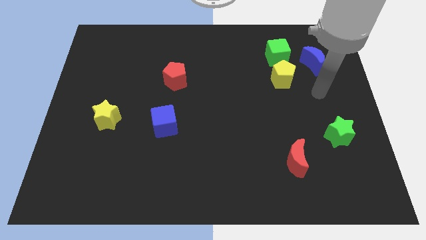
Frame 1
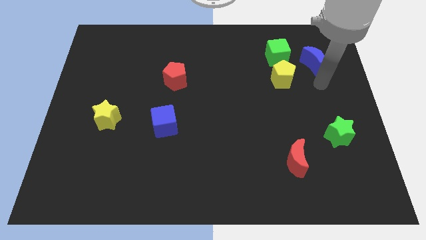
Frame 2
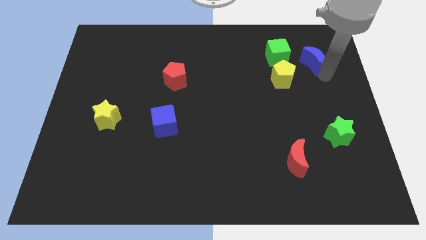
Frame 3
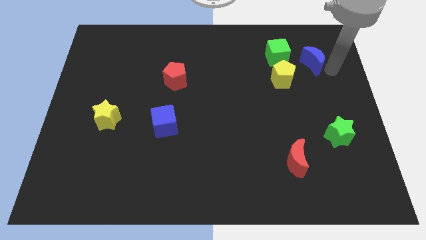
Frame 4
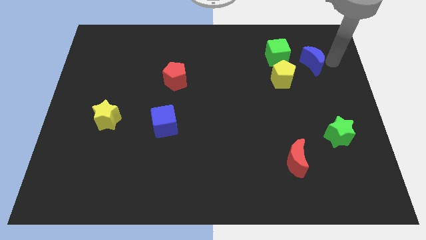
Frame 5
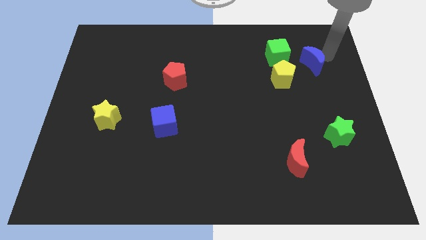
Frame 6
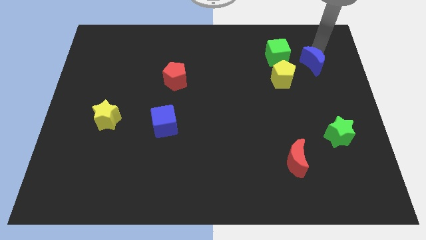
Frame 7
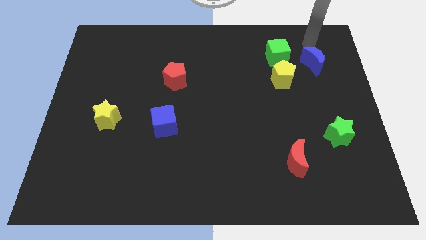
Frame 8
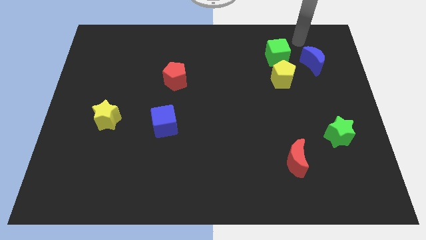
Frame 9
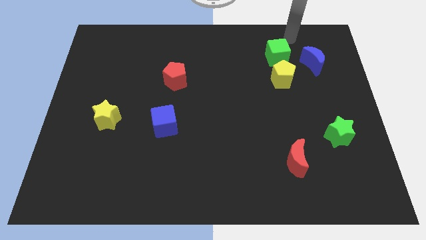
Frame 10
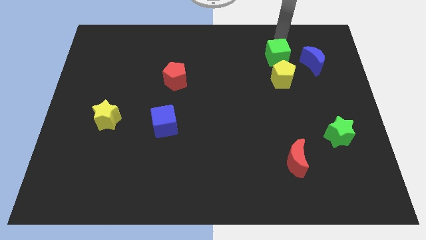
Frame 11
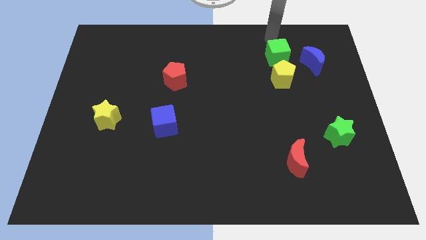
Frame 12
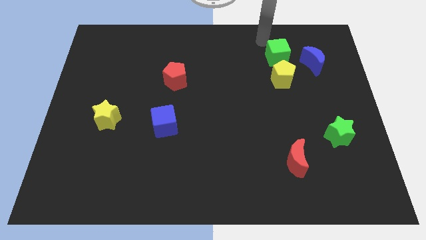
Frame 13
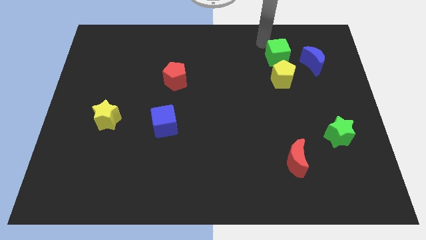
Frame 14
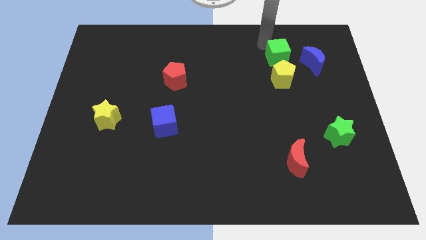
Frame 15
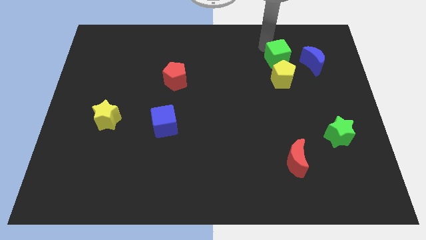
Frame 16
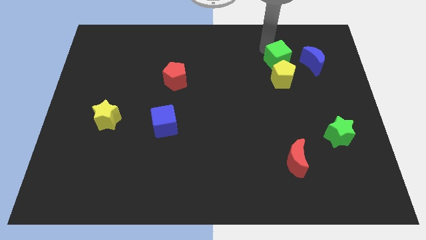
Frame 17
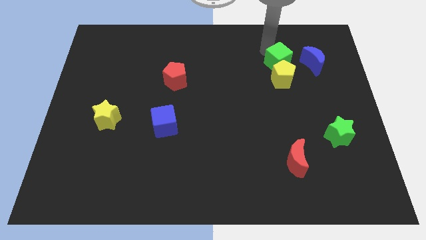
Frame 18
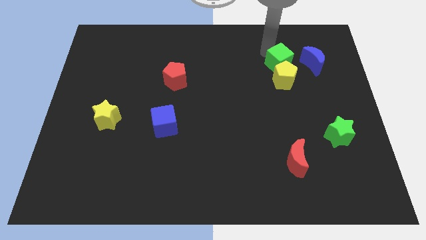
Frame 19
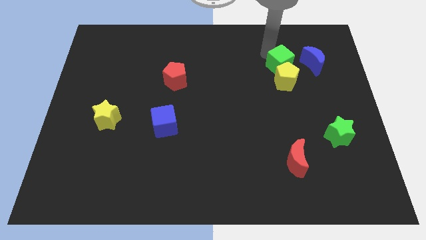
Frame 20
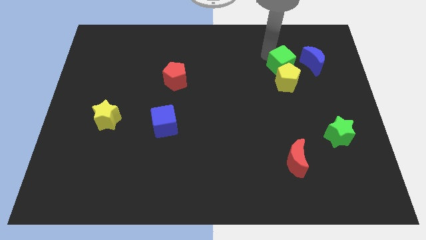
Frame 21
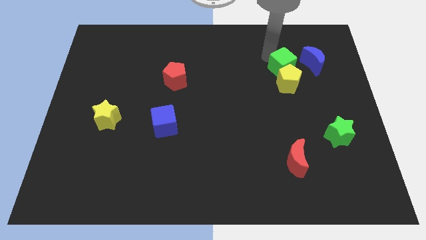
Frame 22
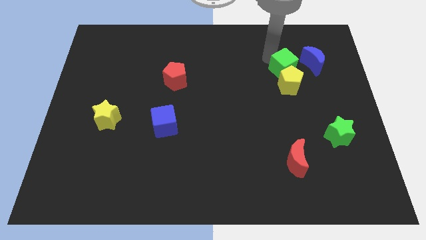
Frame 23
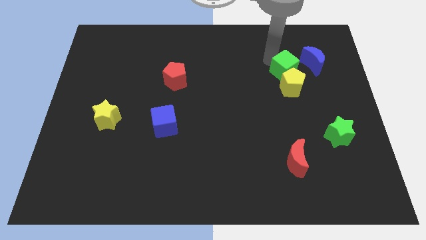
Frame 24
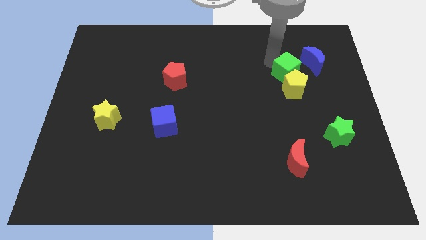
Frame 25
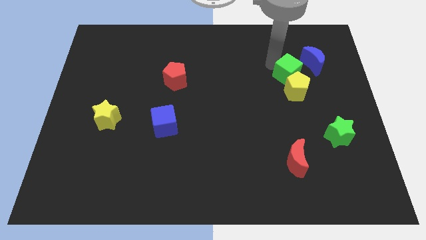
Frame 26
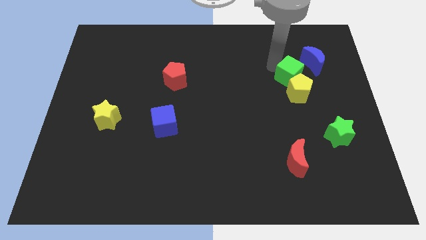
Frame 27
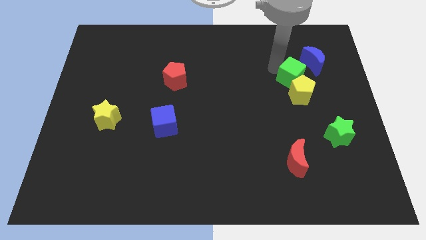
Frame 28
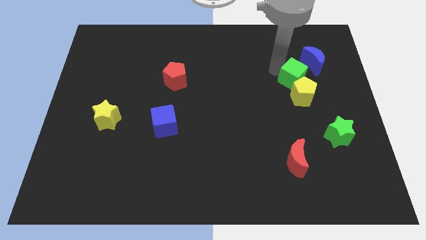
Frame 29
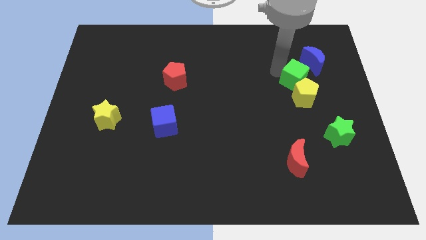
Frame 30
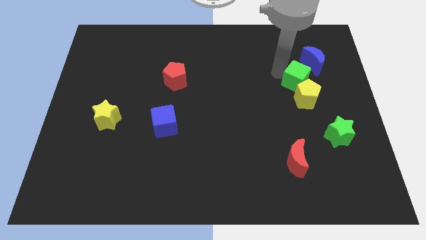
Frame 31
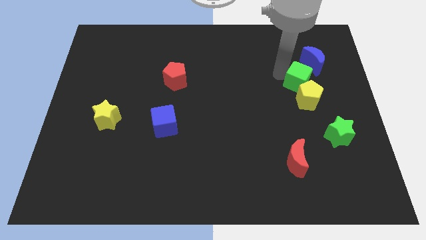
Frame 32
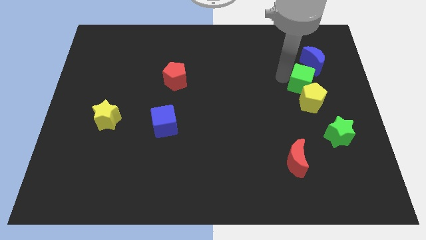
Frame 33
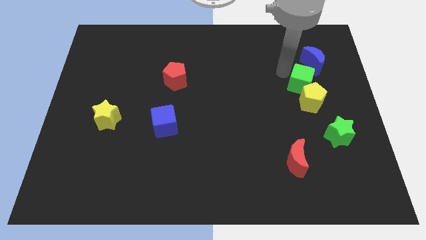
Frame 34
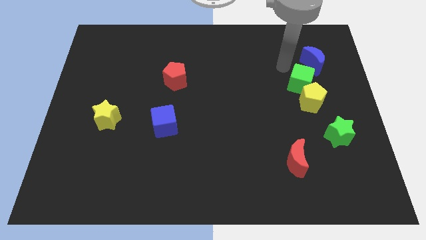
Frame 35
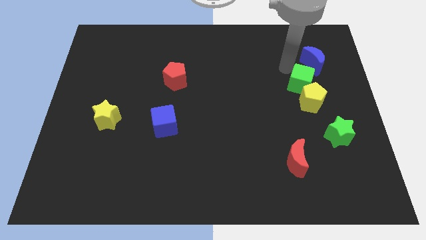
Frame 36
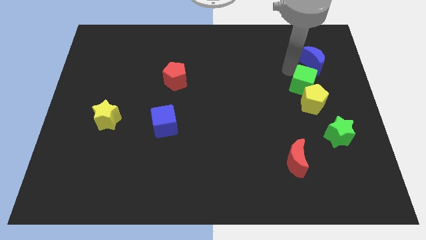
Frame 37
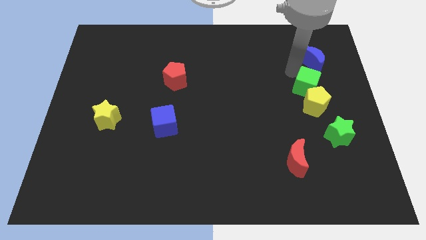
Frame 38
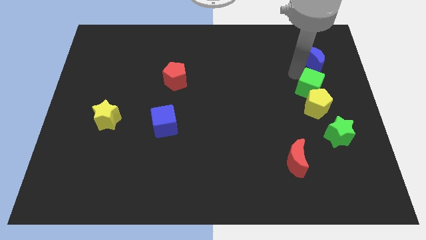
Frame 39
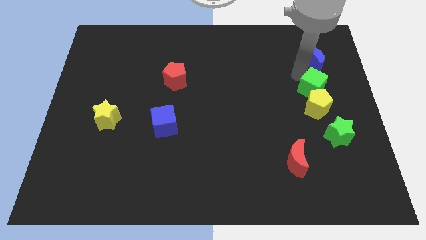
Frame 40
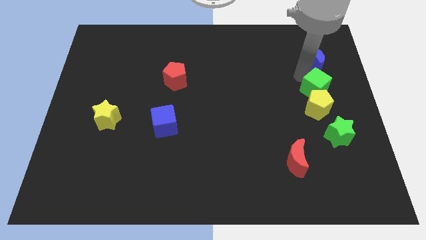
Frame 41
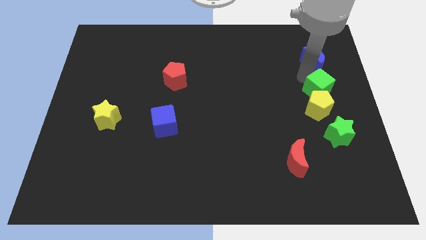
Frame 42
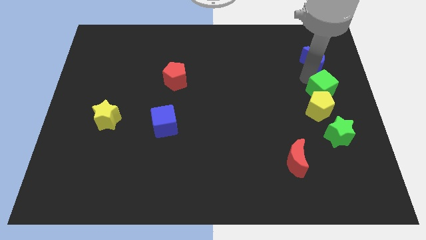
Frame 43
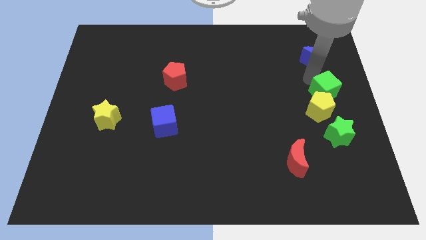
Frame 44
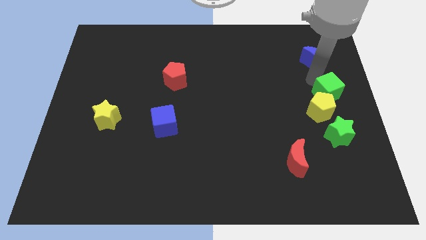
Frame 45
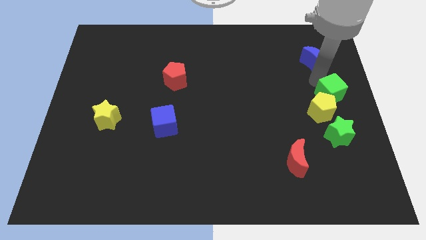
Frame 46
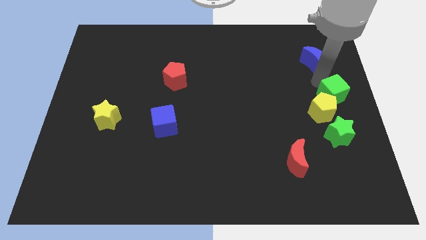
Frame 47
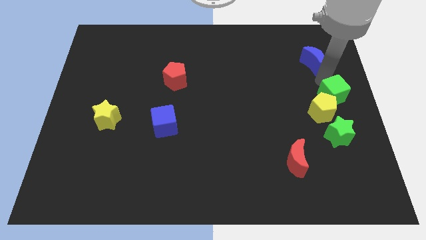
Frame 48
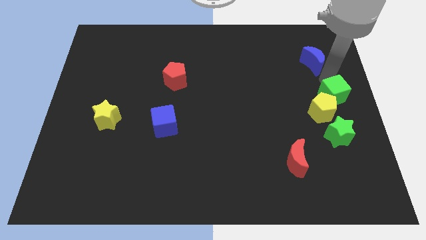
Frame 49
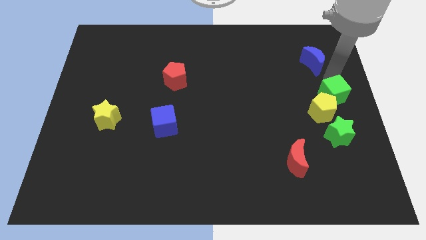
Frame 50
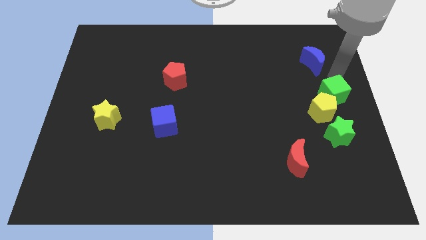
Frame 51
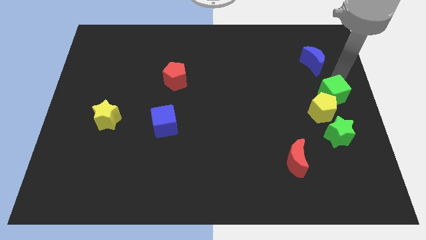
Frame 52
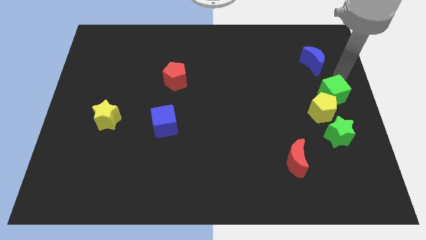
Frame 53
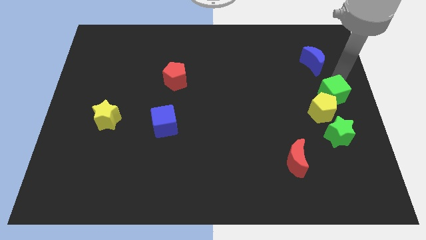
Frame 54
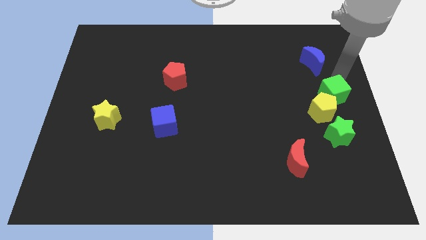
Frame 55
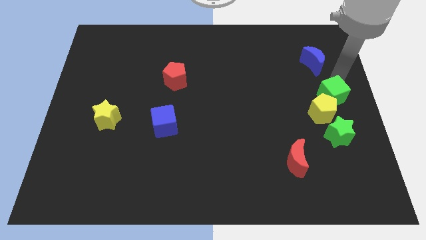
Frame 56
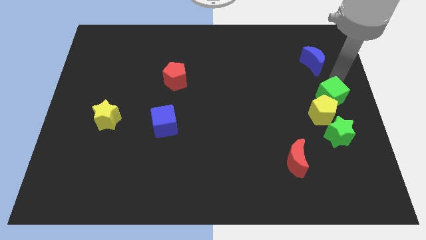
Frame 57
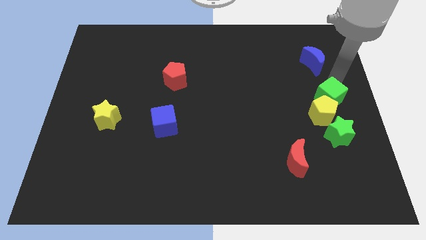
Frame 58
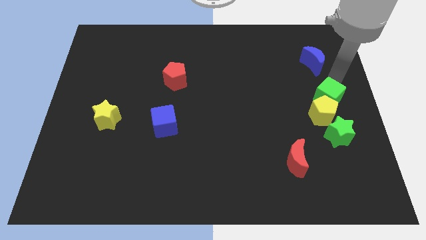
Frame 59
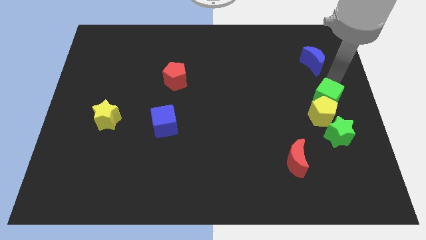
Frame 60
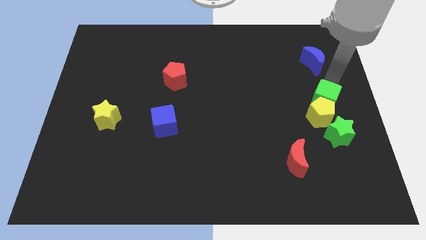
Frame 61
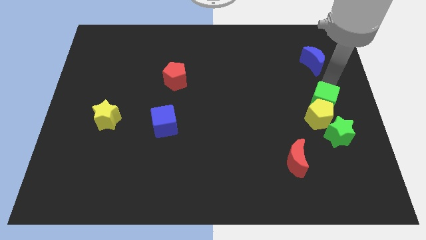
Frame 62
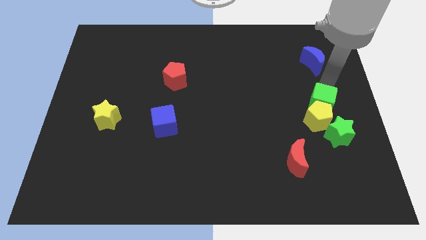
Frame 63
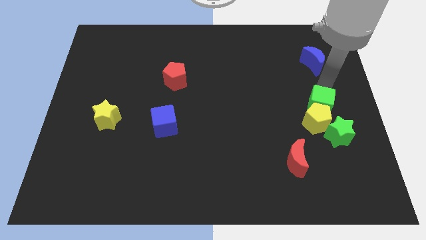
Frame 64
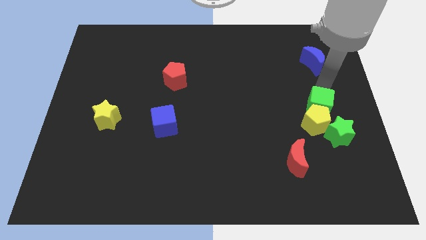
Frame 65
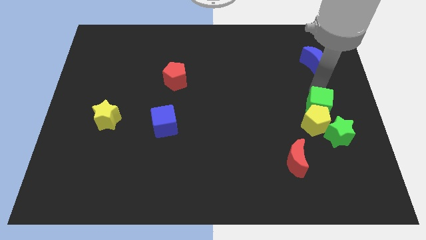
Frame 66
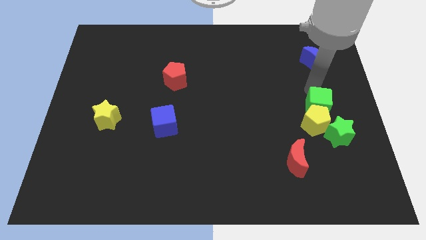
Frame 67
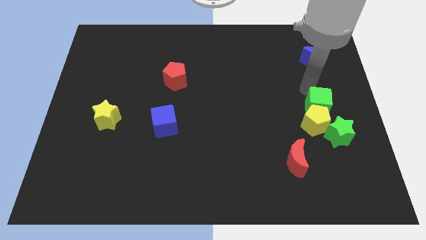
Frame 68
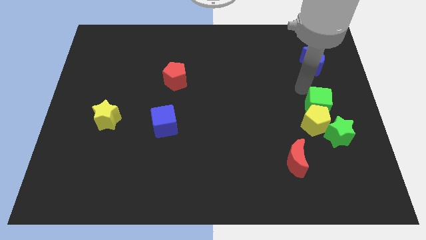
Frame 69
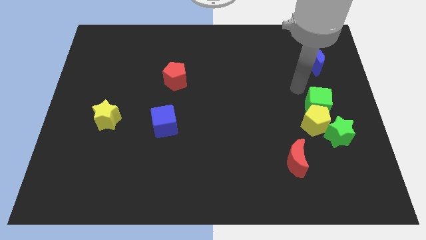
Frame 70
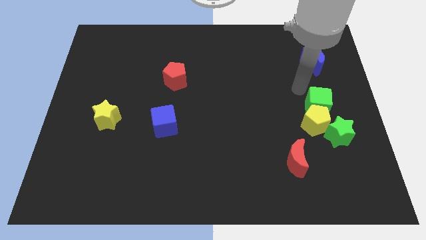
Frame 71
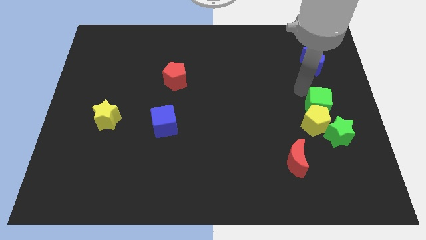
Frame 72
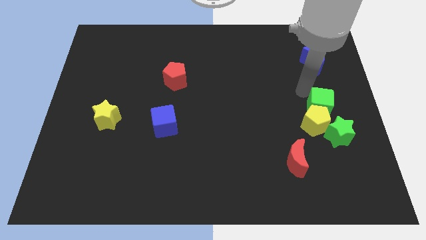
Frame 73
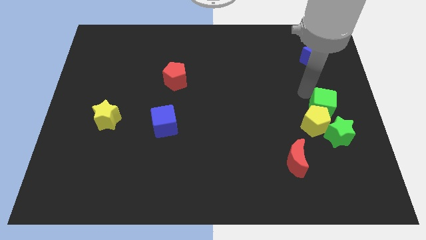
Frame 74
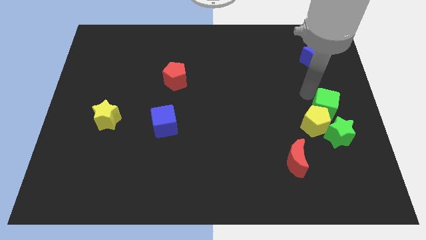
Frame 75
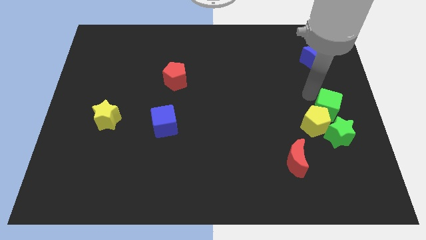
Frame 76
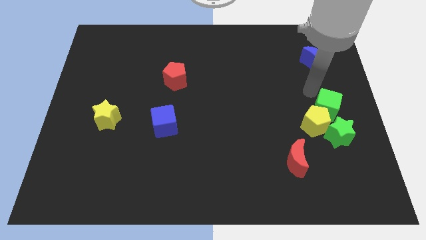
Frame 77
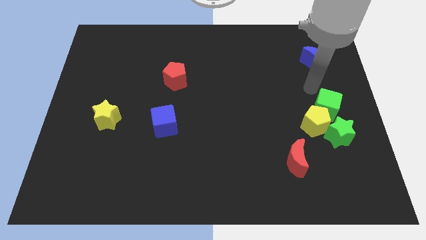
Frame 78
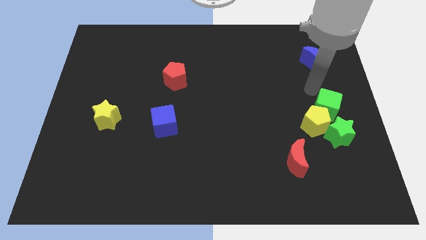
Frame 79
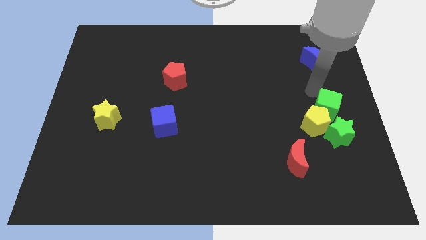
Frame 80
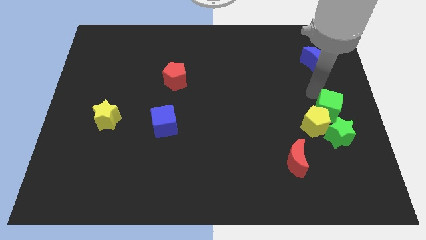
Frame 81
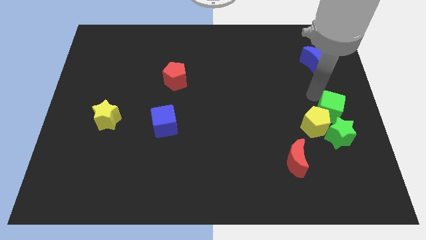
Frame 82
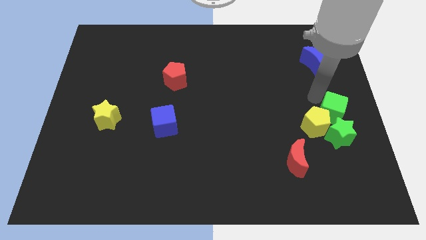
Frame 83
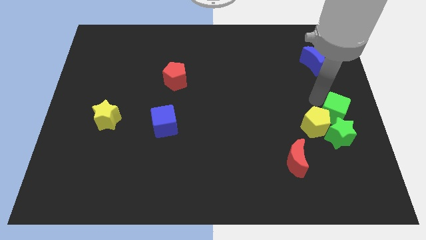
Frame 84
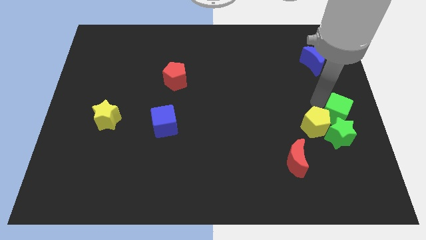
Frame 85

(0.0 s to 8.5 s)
move the green cube close to the green star
